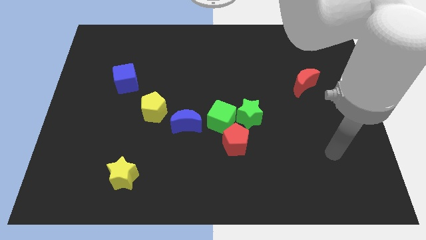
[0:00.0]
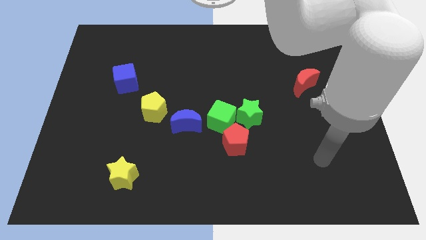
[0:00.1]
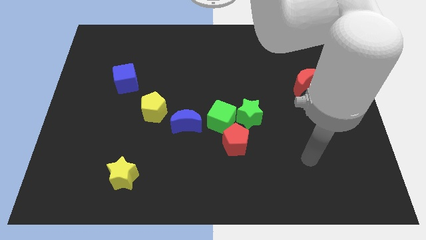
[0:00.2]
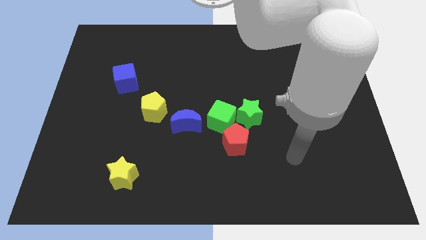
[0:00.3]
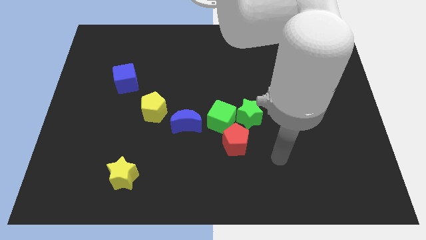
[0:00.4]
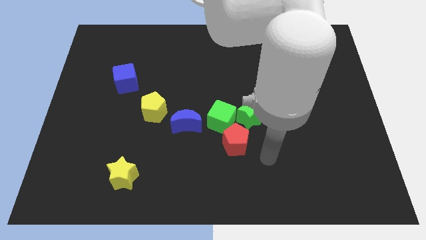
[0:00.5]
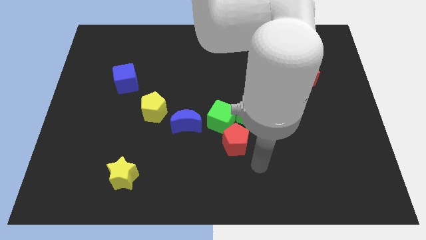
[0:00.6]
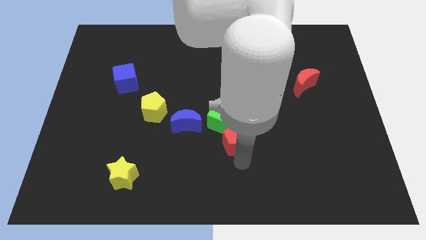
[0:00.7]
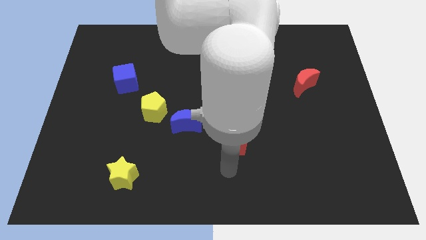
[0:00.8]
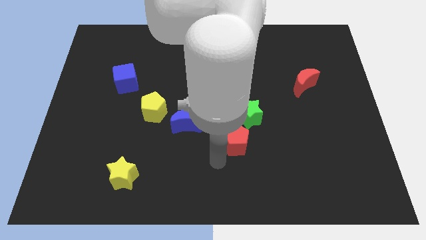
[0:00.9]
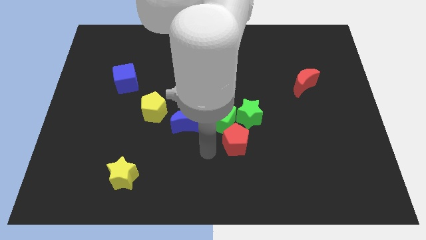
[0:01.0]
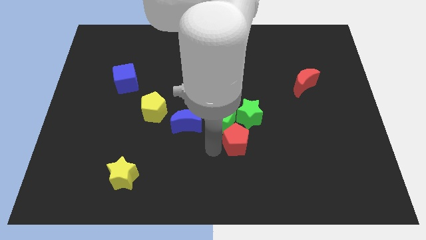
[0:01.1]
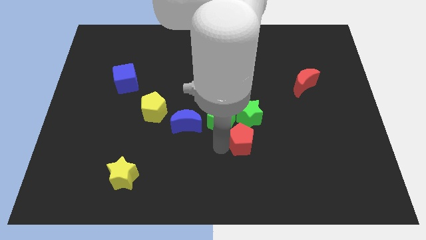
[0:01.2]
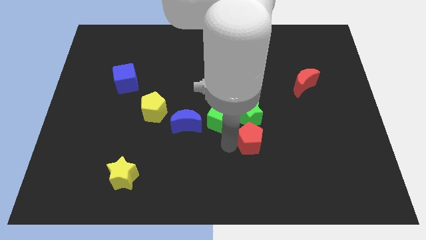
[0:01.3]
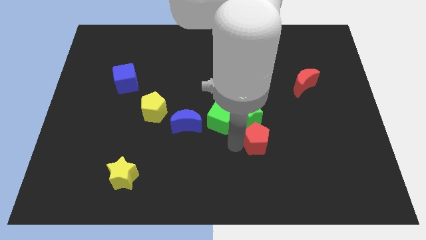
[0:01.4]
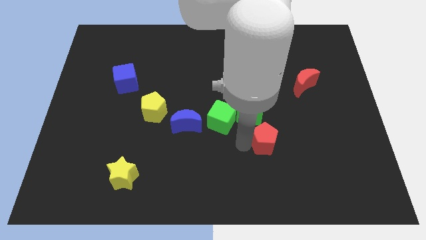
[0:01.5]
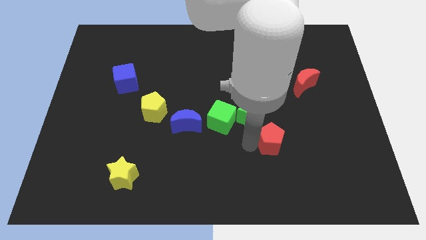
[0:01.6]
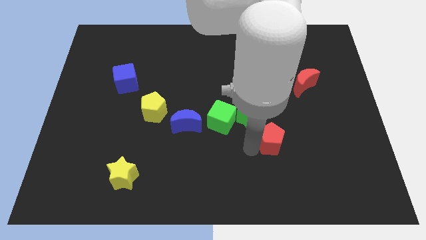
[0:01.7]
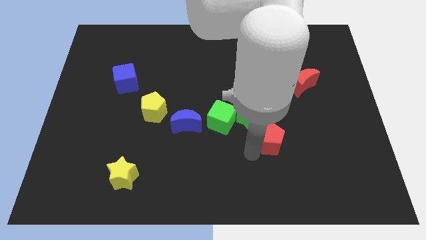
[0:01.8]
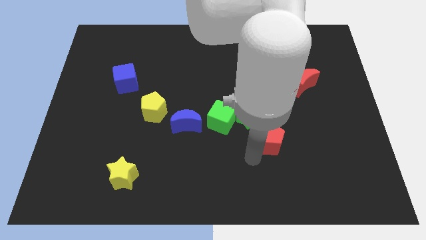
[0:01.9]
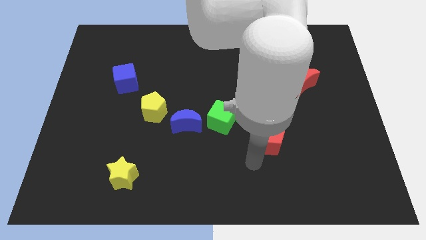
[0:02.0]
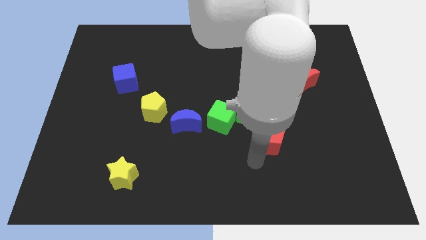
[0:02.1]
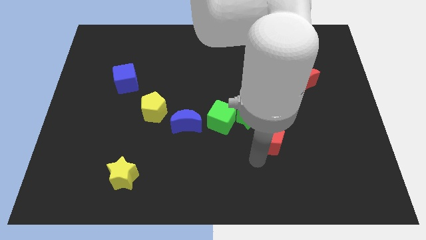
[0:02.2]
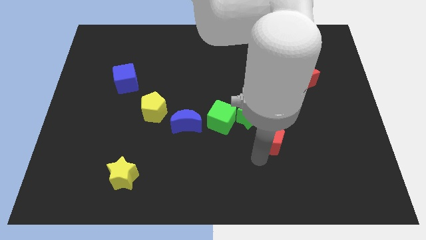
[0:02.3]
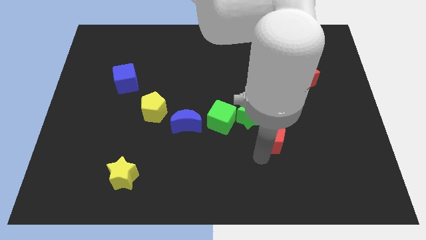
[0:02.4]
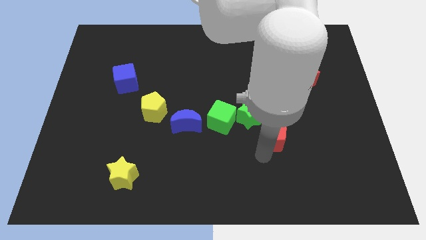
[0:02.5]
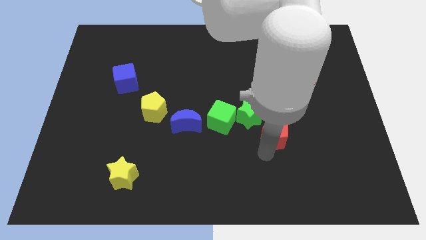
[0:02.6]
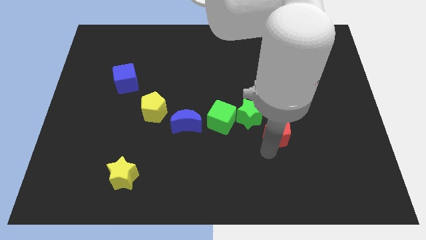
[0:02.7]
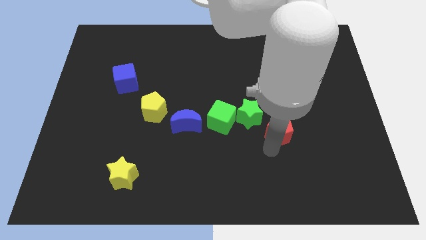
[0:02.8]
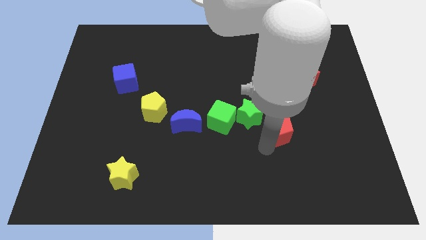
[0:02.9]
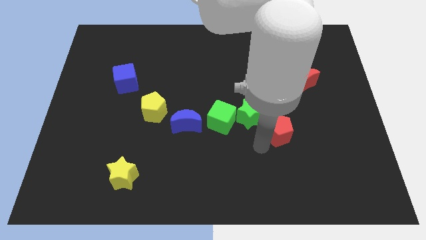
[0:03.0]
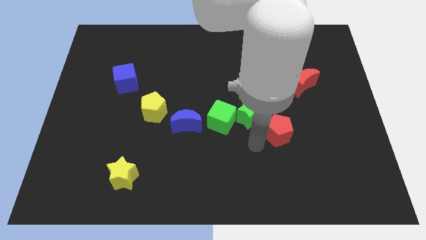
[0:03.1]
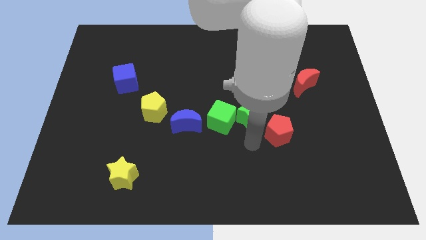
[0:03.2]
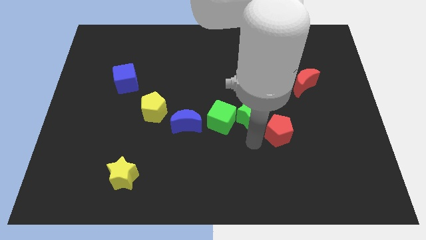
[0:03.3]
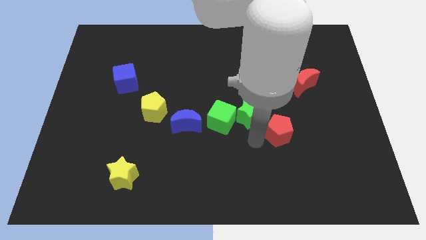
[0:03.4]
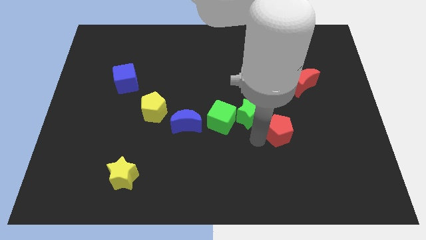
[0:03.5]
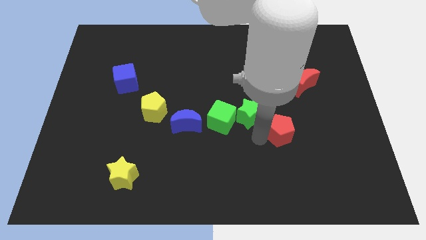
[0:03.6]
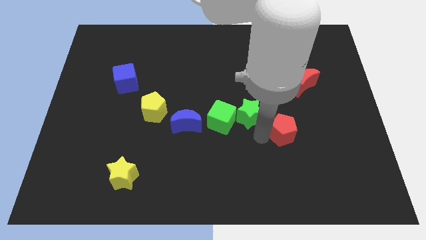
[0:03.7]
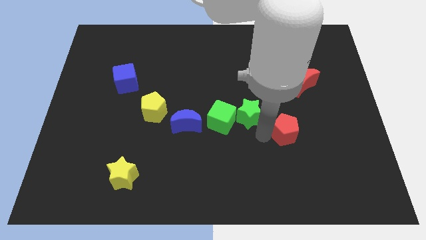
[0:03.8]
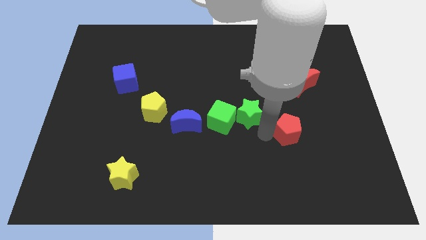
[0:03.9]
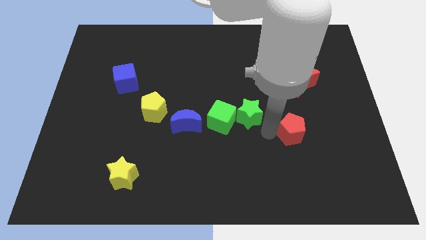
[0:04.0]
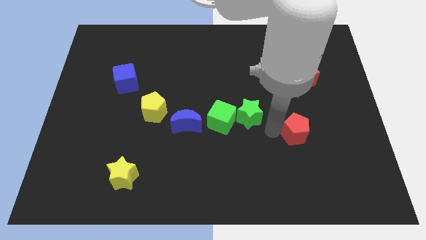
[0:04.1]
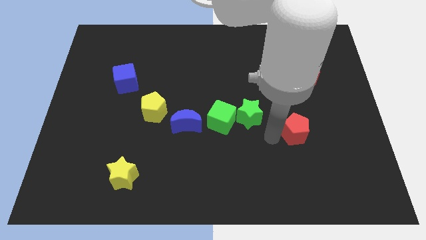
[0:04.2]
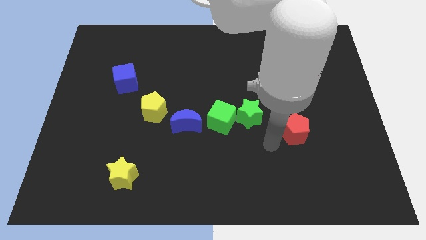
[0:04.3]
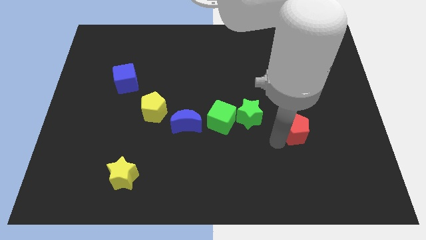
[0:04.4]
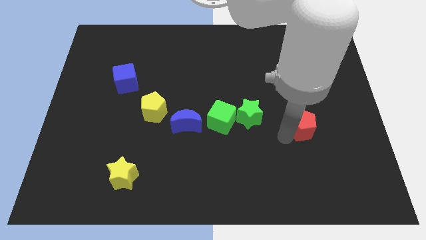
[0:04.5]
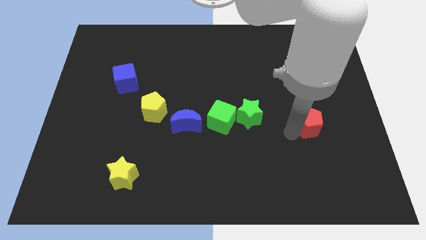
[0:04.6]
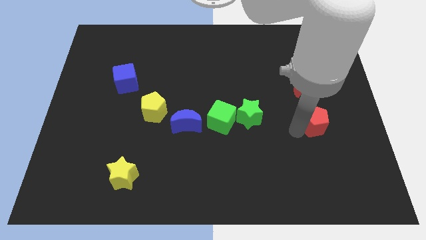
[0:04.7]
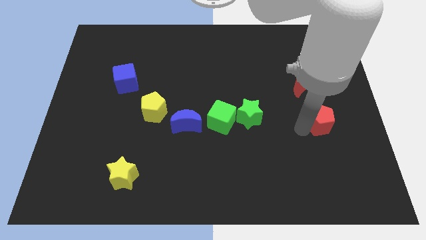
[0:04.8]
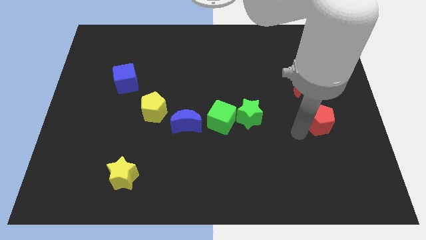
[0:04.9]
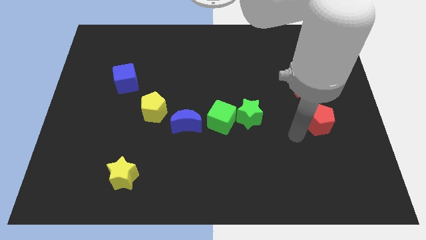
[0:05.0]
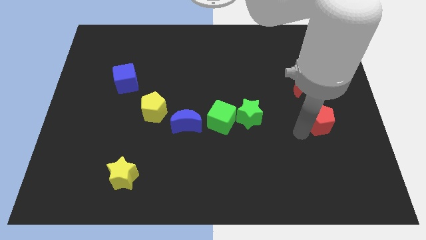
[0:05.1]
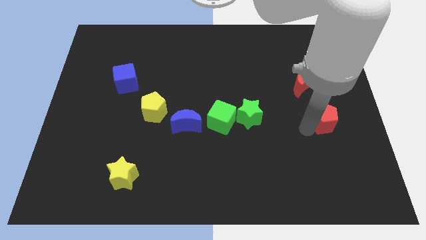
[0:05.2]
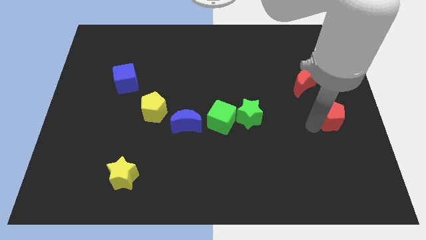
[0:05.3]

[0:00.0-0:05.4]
push the red pentagon to the right side of the board

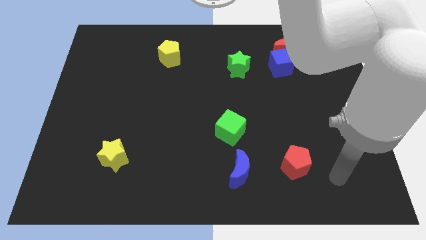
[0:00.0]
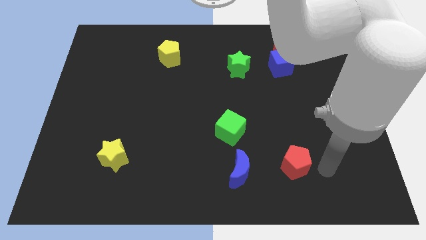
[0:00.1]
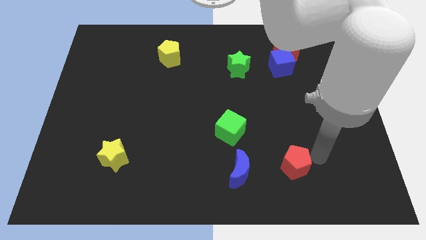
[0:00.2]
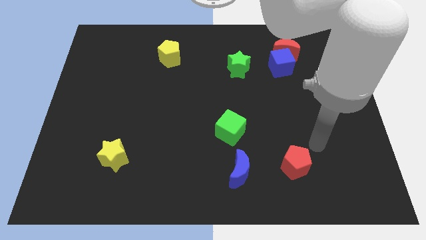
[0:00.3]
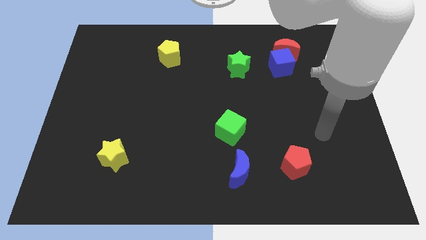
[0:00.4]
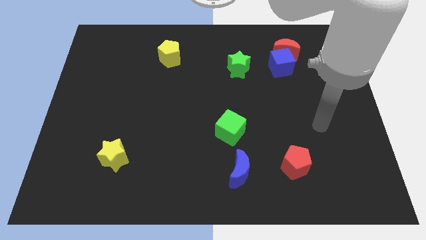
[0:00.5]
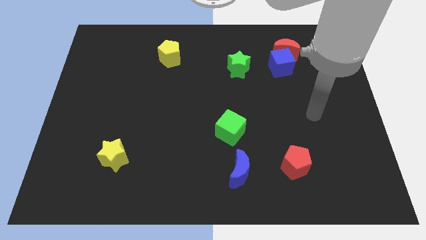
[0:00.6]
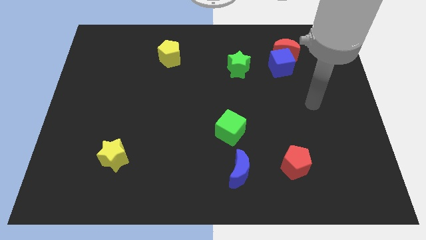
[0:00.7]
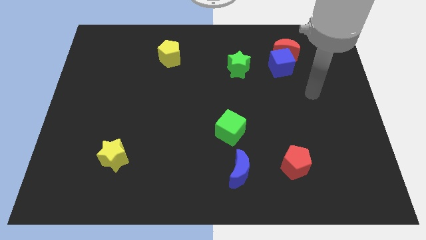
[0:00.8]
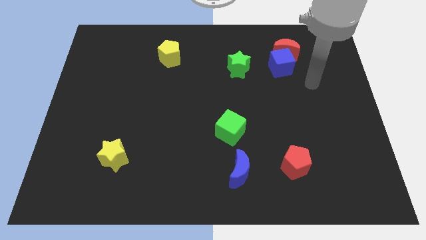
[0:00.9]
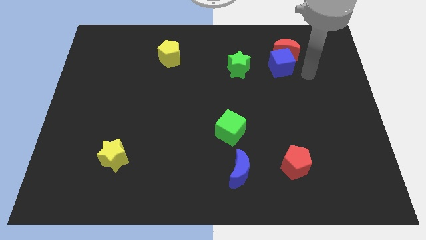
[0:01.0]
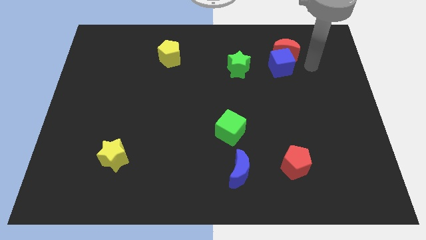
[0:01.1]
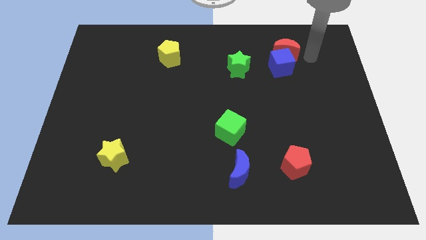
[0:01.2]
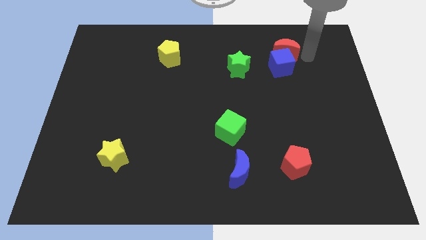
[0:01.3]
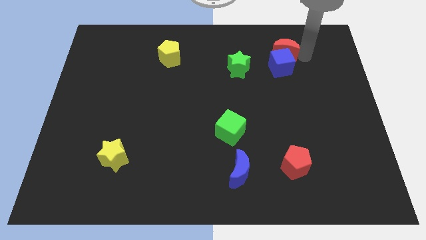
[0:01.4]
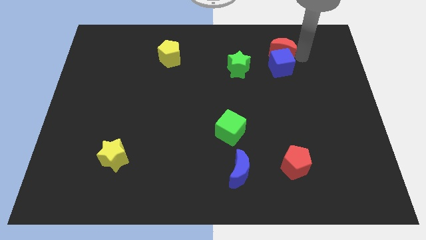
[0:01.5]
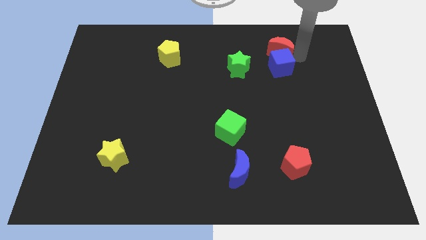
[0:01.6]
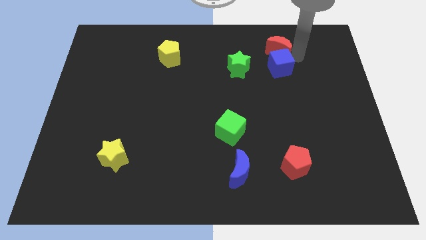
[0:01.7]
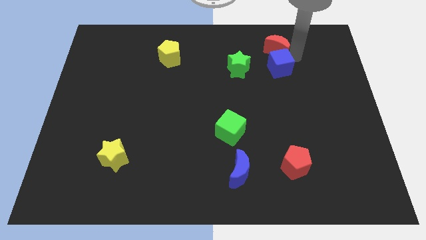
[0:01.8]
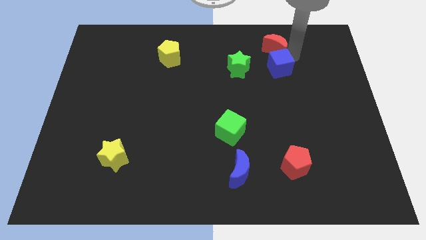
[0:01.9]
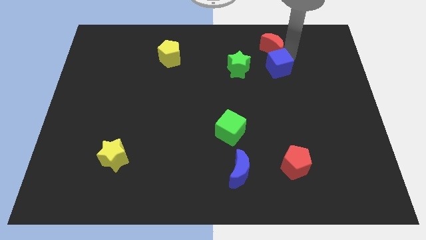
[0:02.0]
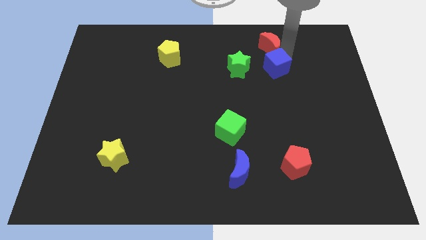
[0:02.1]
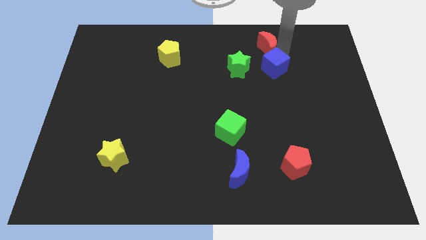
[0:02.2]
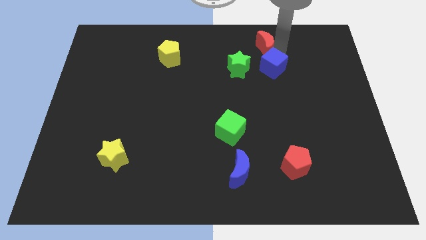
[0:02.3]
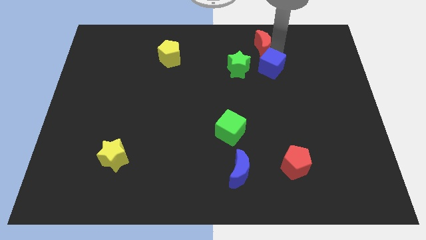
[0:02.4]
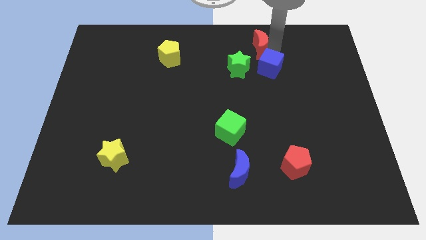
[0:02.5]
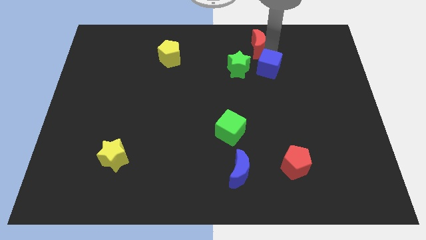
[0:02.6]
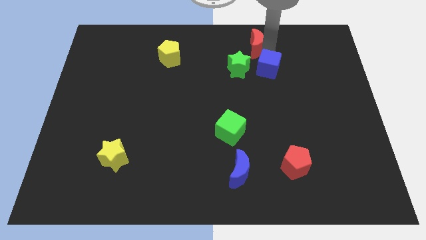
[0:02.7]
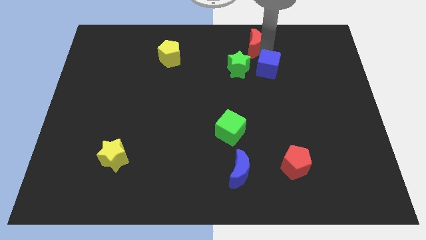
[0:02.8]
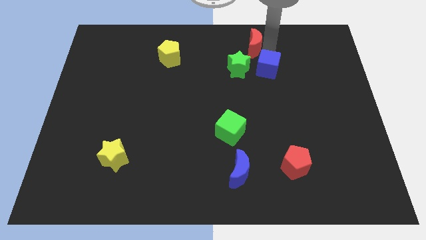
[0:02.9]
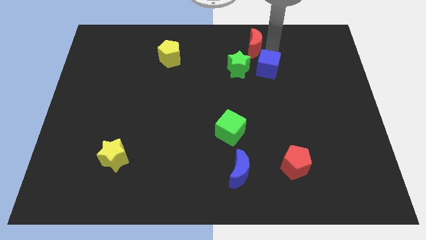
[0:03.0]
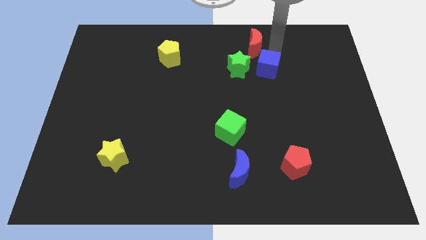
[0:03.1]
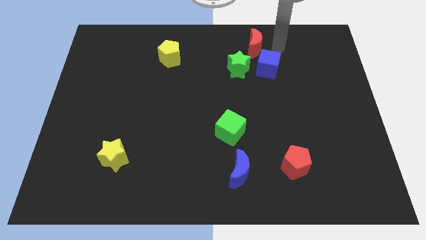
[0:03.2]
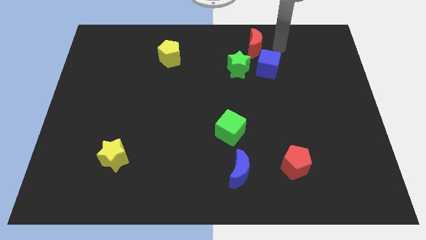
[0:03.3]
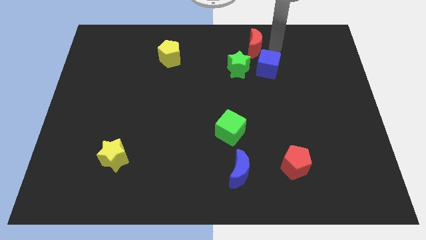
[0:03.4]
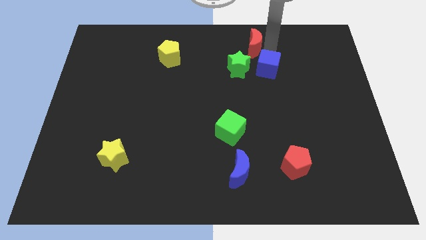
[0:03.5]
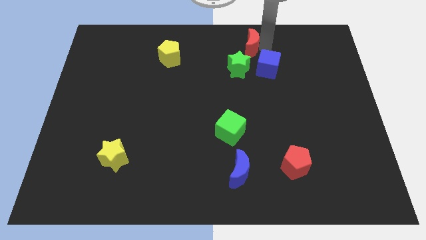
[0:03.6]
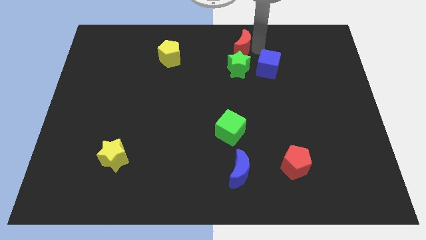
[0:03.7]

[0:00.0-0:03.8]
put the red moon to the top
